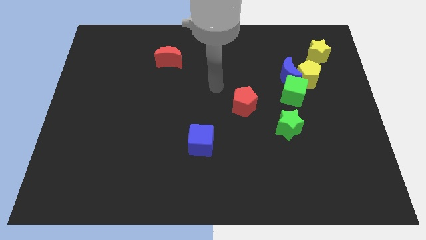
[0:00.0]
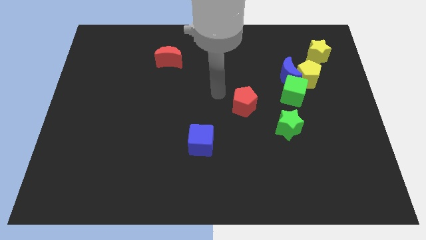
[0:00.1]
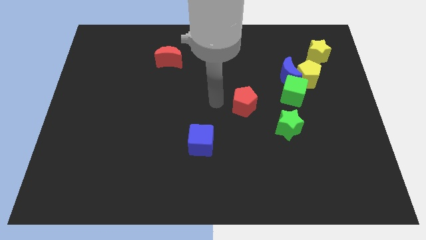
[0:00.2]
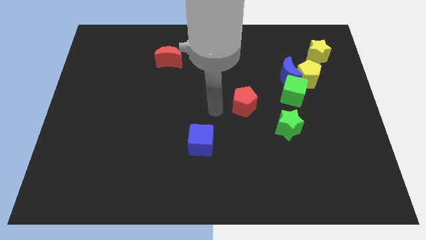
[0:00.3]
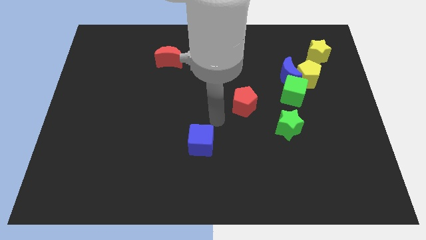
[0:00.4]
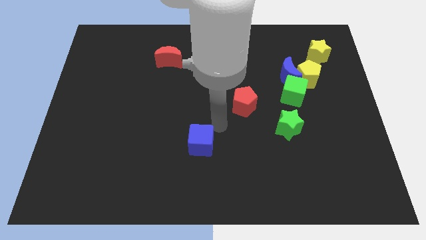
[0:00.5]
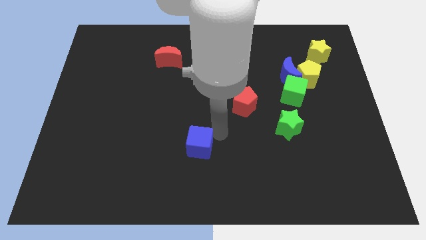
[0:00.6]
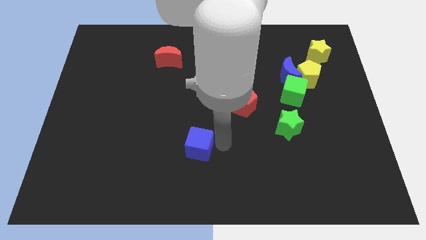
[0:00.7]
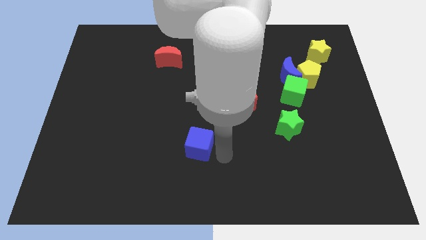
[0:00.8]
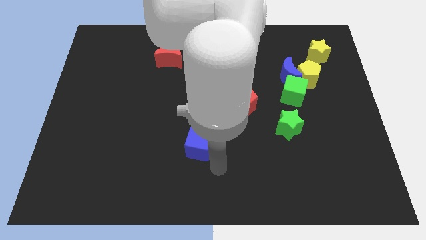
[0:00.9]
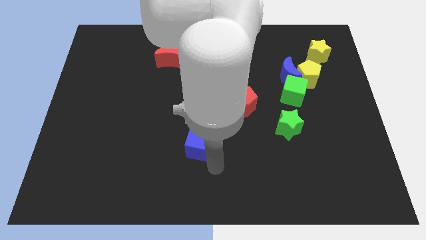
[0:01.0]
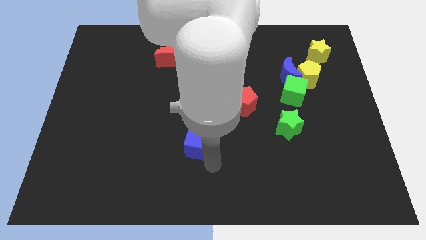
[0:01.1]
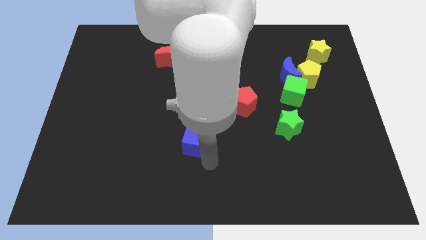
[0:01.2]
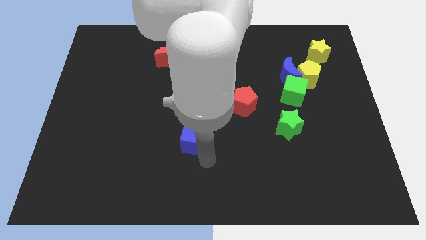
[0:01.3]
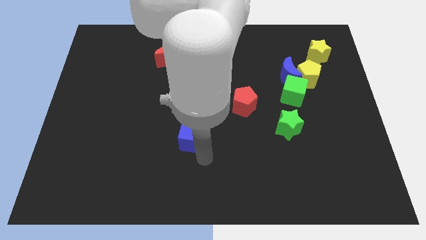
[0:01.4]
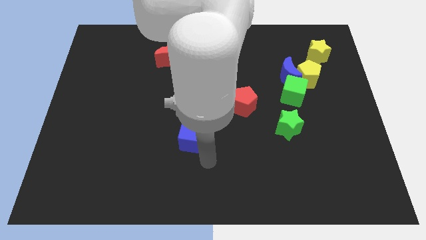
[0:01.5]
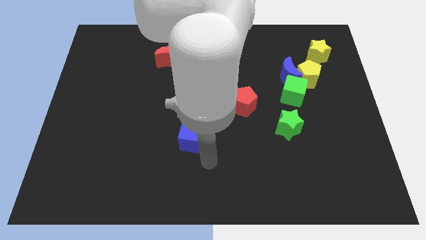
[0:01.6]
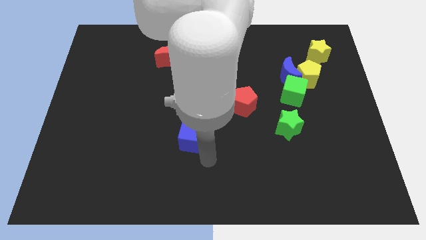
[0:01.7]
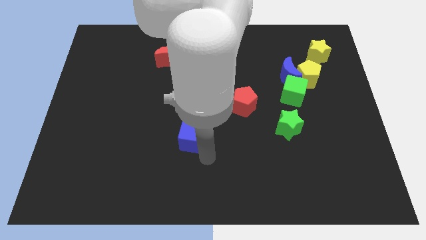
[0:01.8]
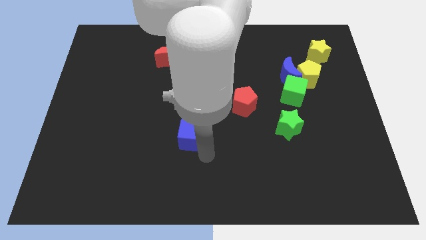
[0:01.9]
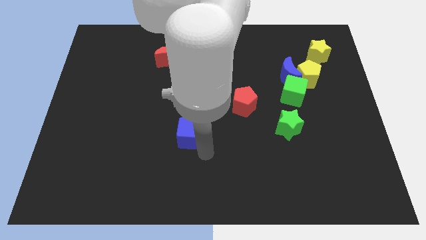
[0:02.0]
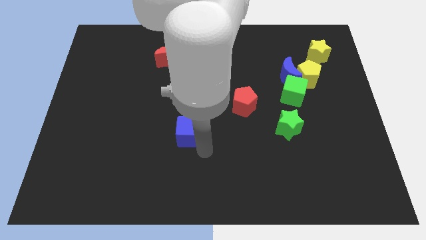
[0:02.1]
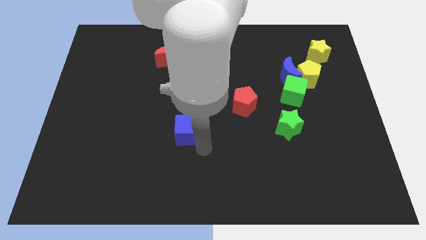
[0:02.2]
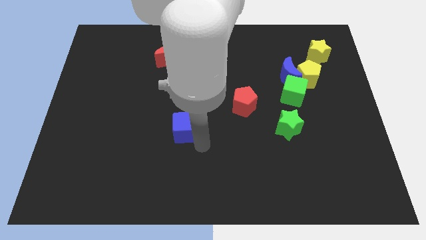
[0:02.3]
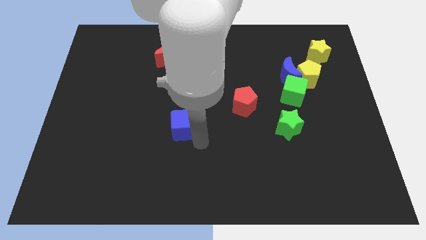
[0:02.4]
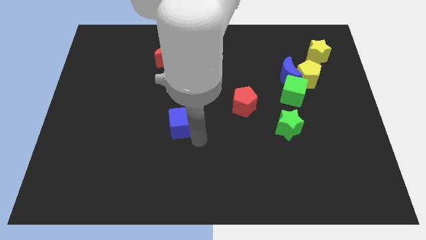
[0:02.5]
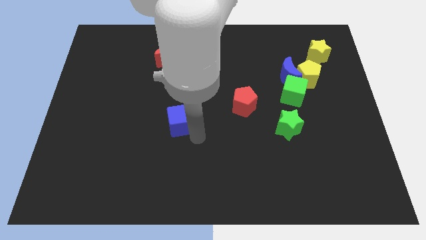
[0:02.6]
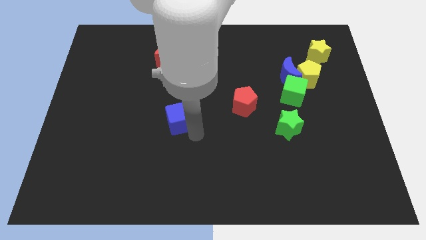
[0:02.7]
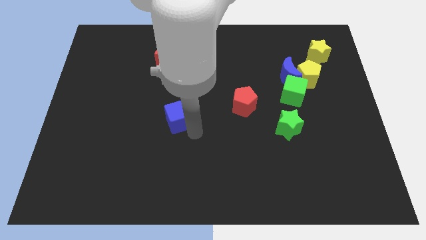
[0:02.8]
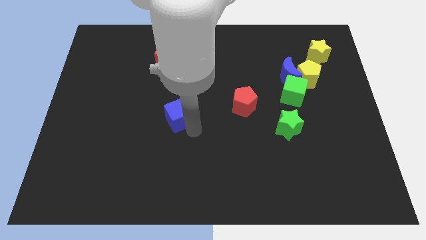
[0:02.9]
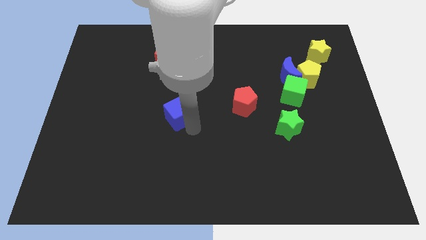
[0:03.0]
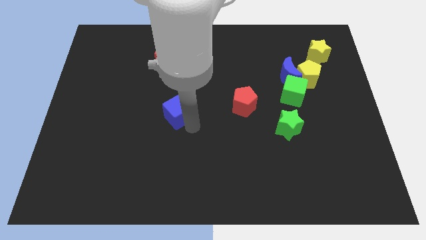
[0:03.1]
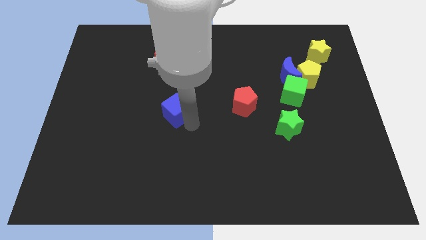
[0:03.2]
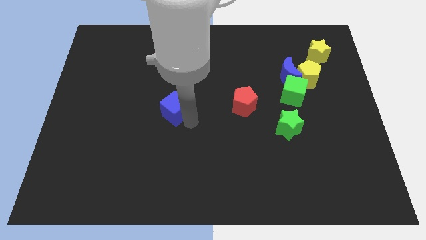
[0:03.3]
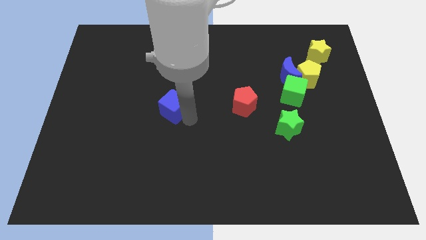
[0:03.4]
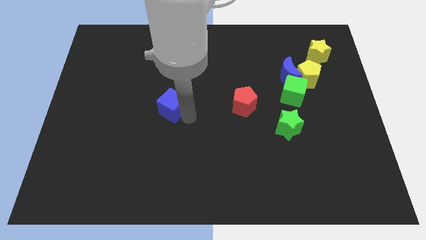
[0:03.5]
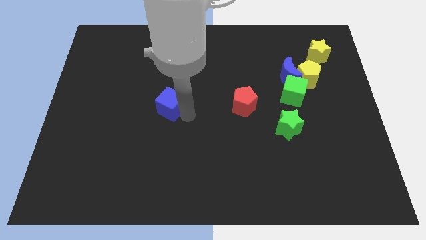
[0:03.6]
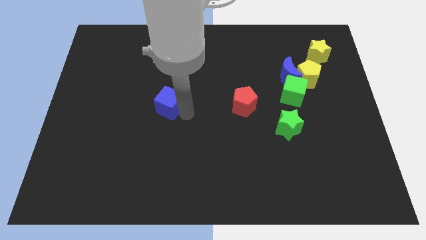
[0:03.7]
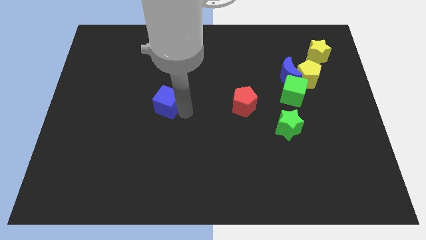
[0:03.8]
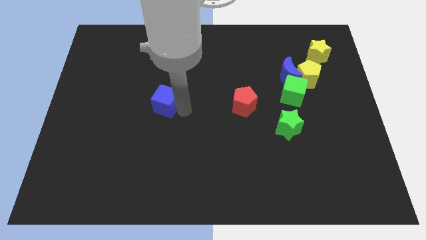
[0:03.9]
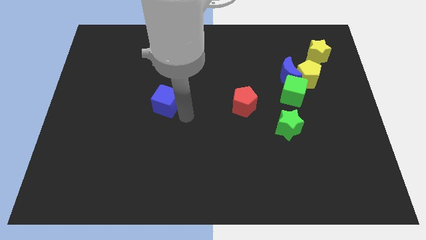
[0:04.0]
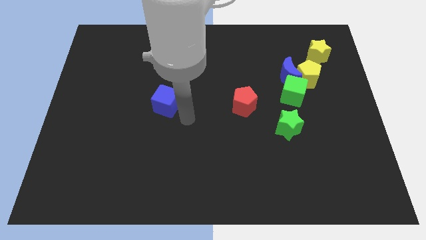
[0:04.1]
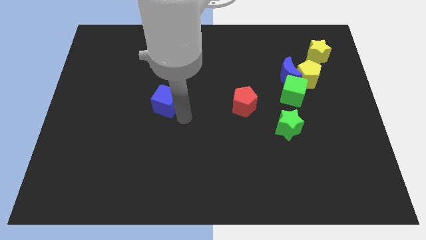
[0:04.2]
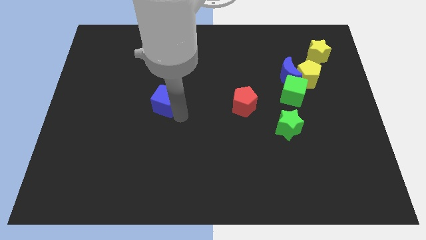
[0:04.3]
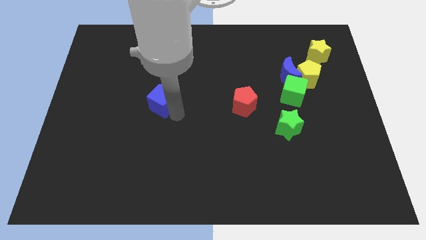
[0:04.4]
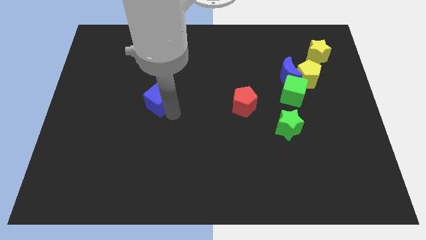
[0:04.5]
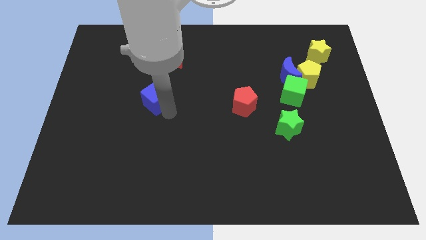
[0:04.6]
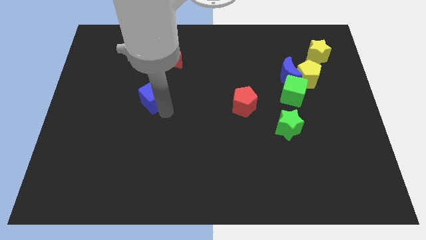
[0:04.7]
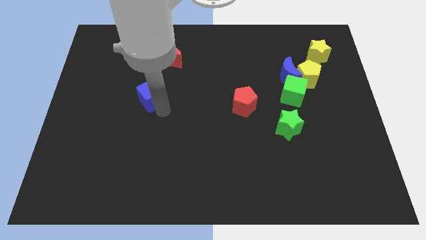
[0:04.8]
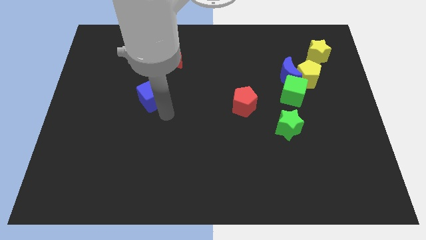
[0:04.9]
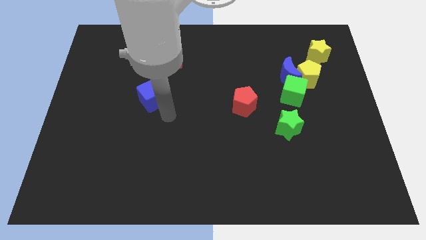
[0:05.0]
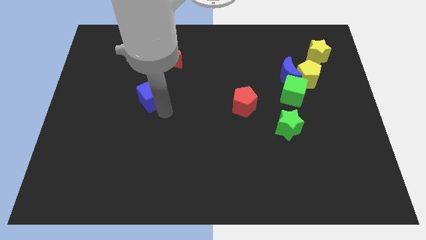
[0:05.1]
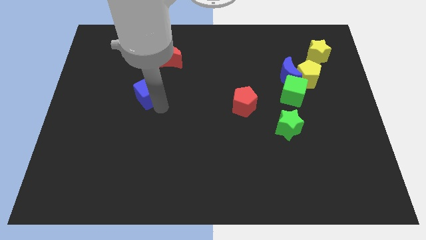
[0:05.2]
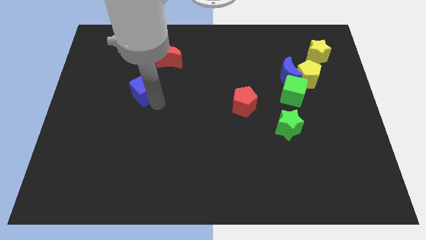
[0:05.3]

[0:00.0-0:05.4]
push the blue cube upwards and to the left diagonally

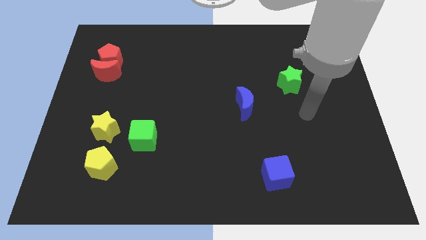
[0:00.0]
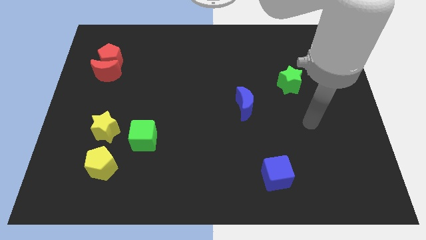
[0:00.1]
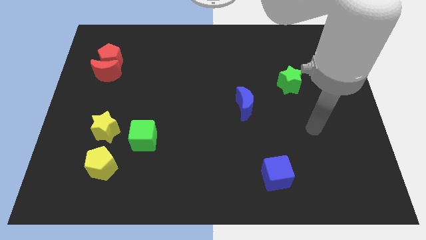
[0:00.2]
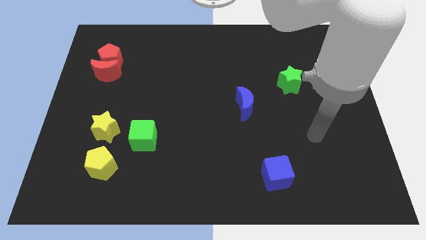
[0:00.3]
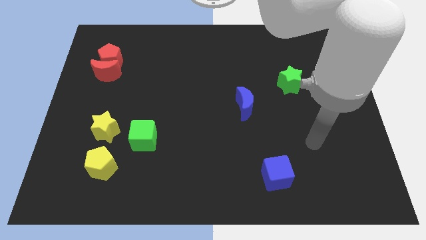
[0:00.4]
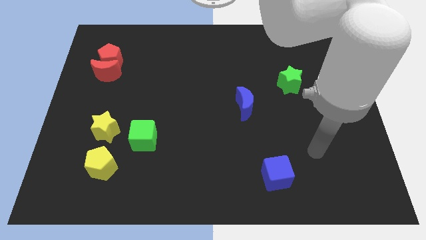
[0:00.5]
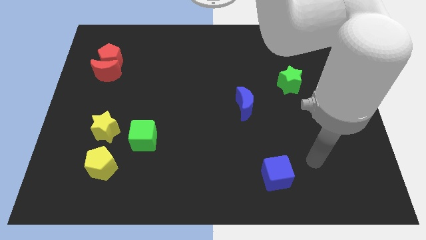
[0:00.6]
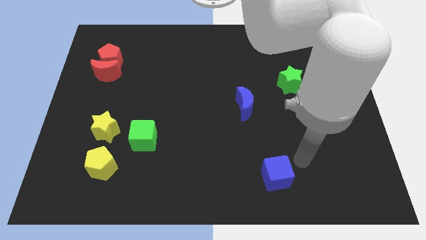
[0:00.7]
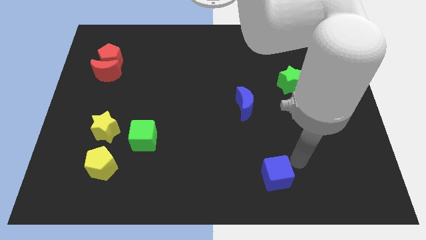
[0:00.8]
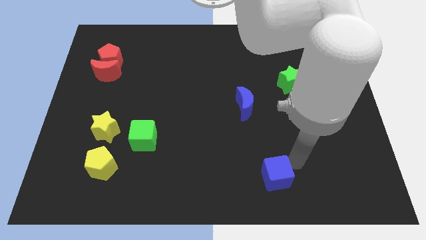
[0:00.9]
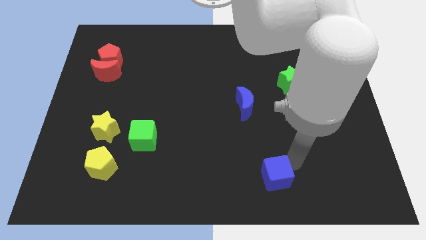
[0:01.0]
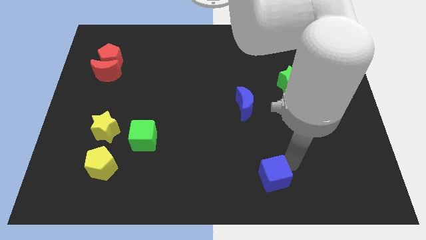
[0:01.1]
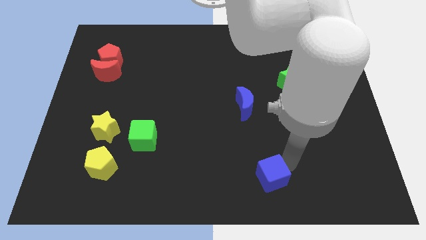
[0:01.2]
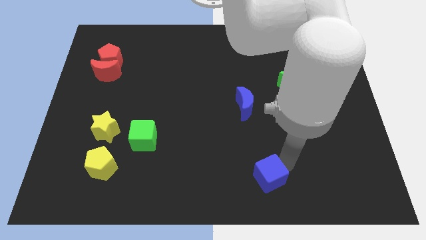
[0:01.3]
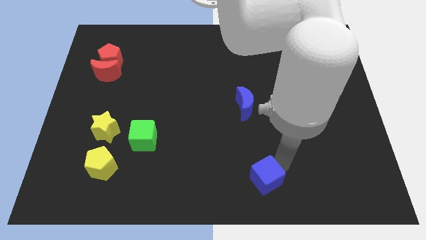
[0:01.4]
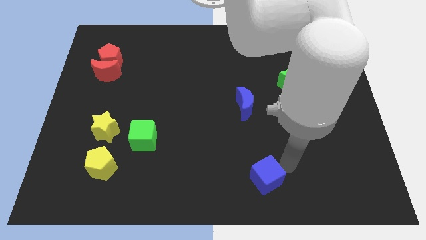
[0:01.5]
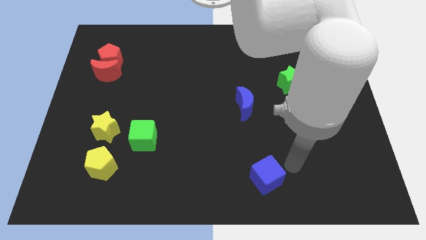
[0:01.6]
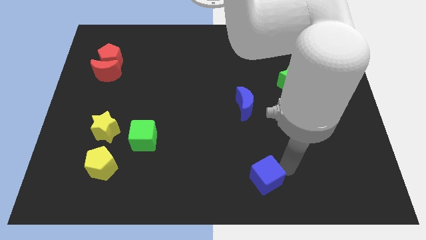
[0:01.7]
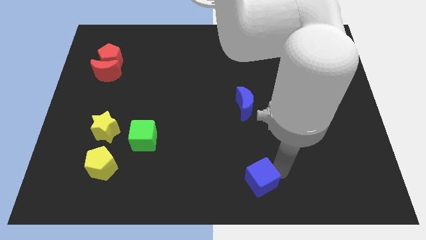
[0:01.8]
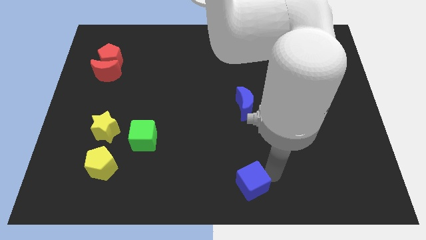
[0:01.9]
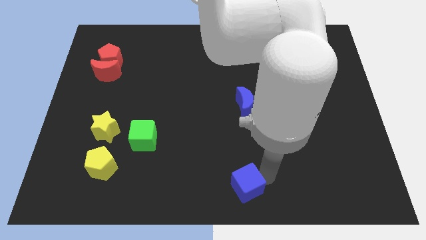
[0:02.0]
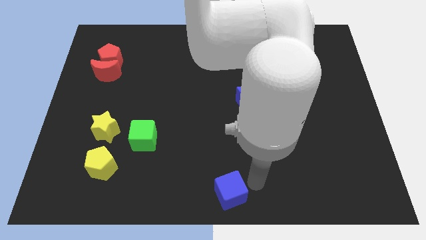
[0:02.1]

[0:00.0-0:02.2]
move the blue cube a bit to the left

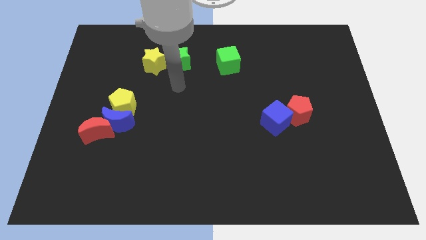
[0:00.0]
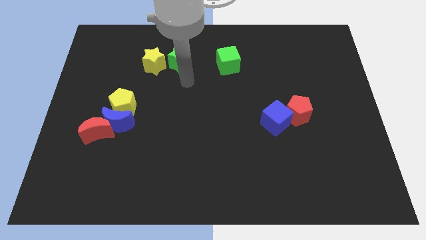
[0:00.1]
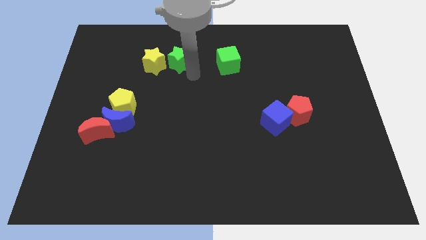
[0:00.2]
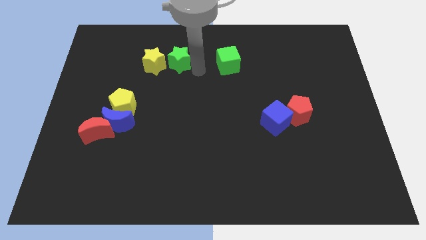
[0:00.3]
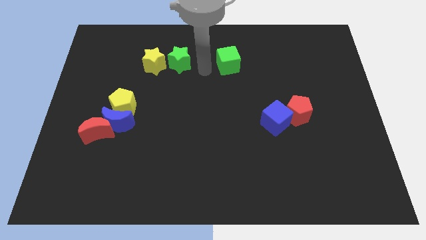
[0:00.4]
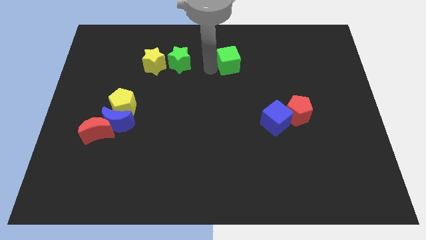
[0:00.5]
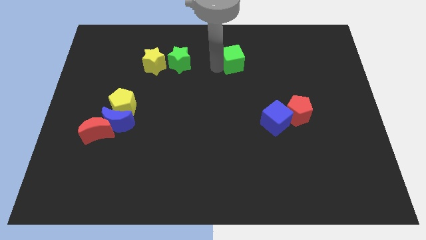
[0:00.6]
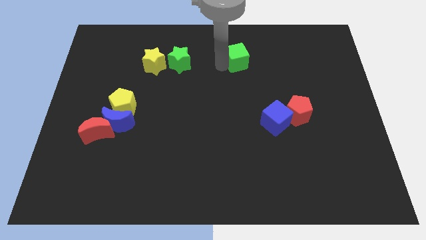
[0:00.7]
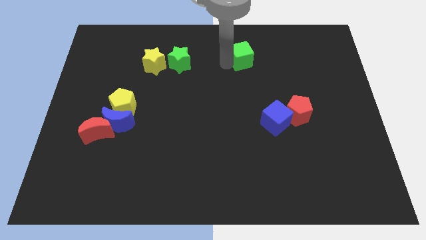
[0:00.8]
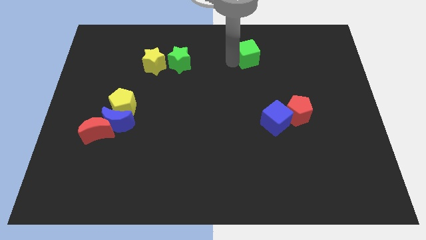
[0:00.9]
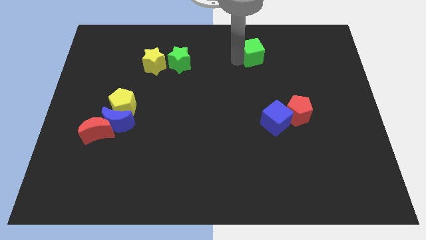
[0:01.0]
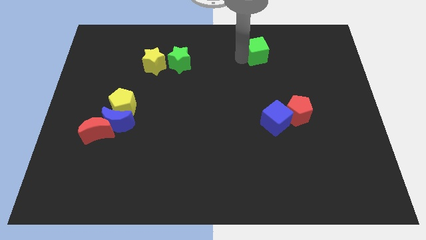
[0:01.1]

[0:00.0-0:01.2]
move the green cube to the right slightly
